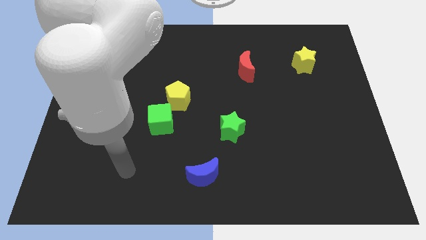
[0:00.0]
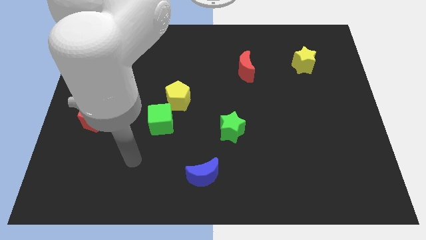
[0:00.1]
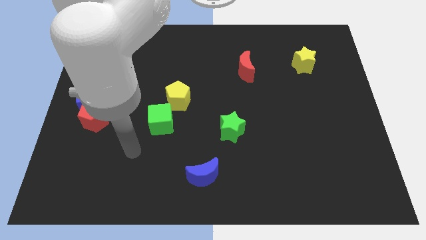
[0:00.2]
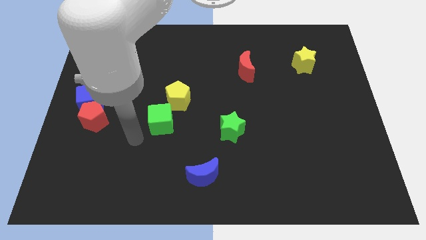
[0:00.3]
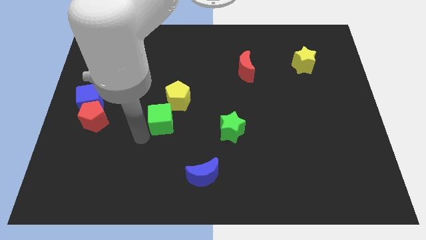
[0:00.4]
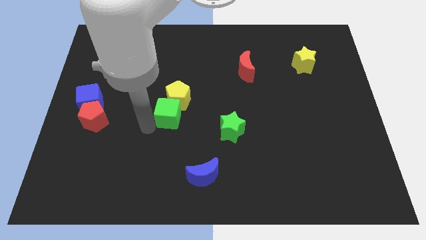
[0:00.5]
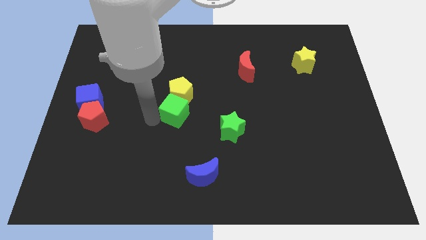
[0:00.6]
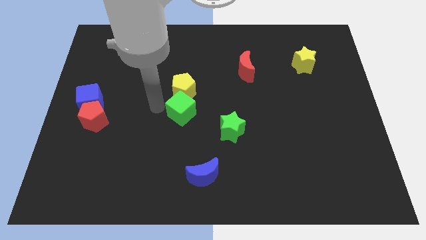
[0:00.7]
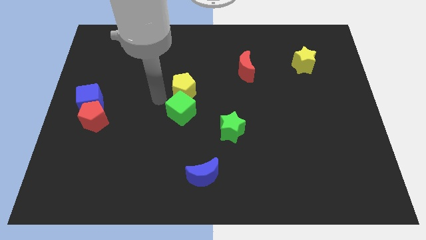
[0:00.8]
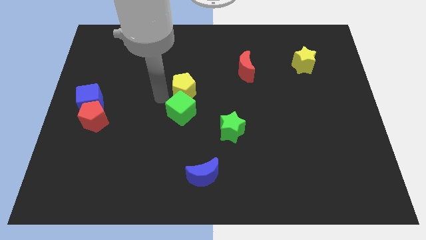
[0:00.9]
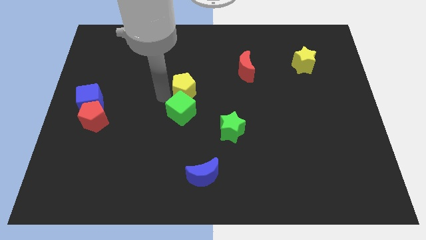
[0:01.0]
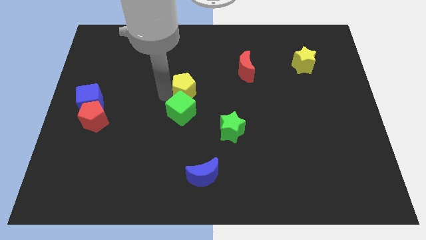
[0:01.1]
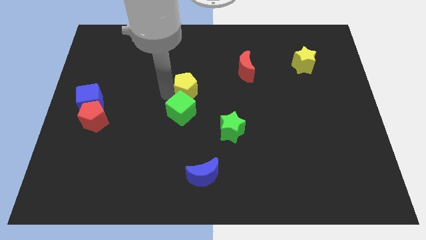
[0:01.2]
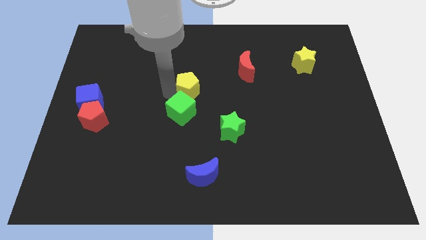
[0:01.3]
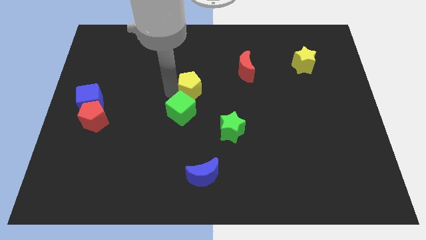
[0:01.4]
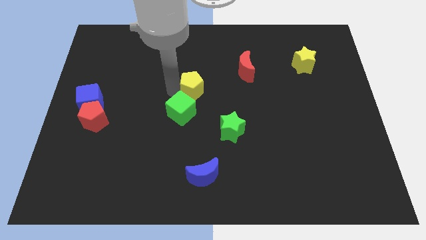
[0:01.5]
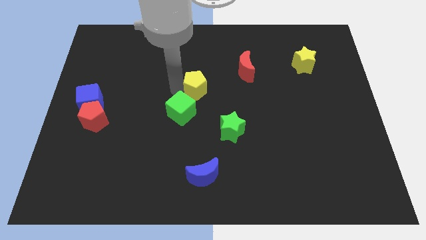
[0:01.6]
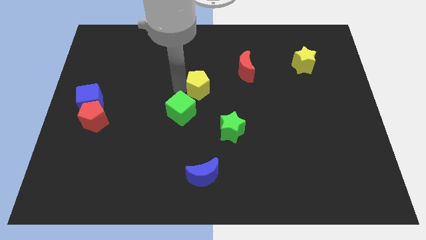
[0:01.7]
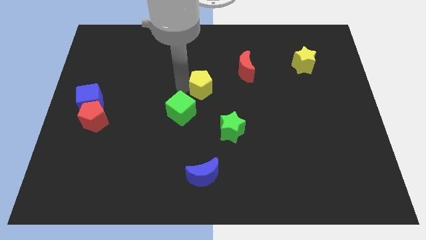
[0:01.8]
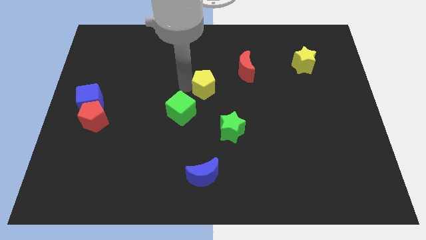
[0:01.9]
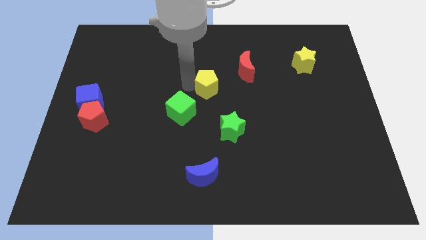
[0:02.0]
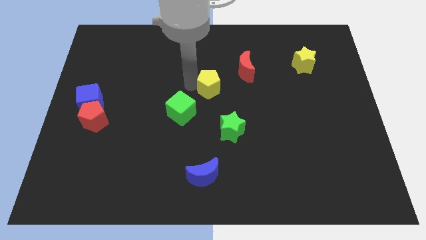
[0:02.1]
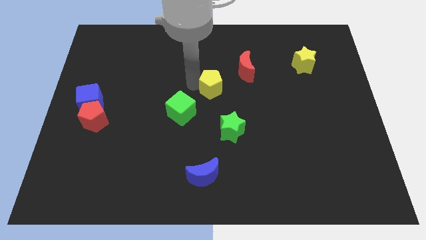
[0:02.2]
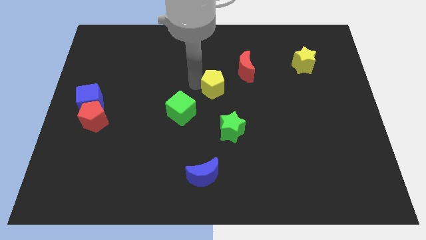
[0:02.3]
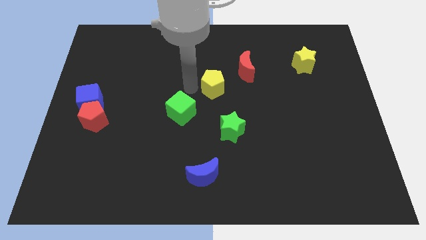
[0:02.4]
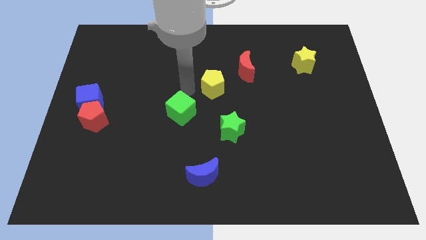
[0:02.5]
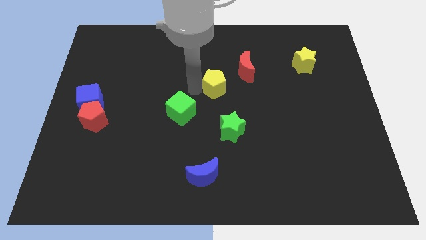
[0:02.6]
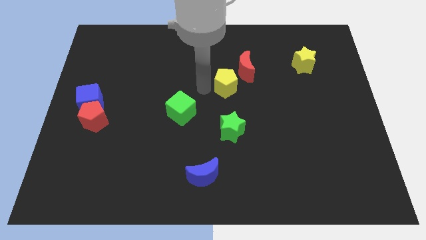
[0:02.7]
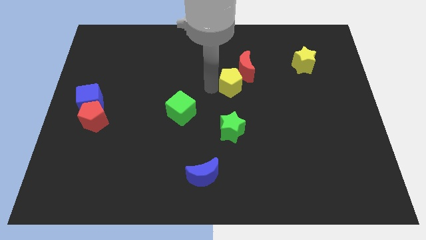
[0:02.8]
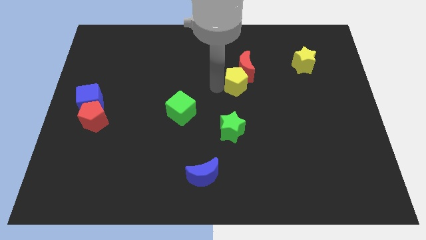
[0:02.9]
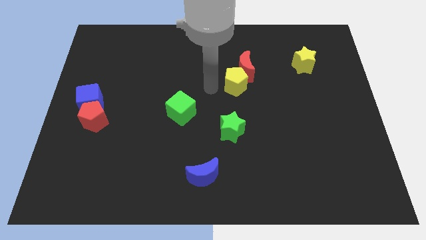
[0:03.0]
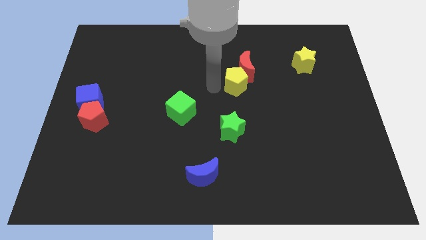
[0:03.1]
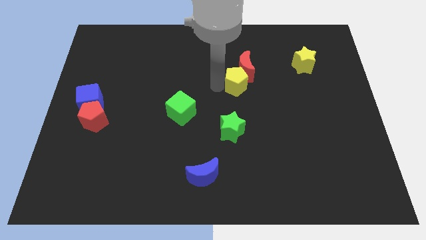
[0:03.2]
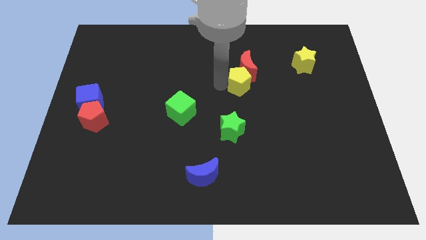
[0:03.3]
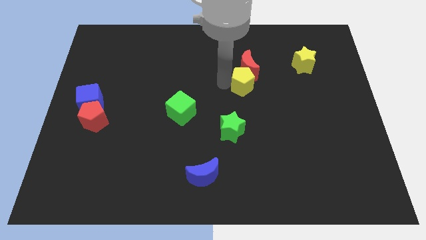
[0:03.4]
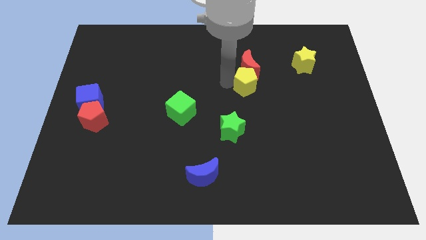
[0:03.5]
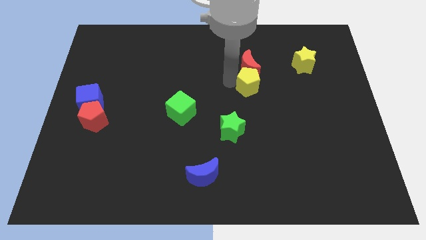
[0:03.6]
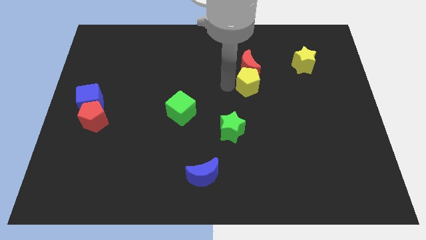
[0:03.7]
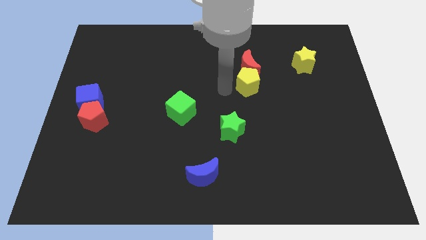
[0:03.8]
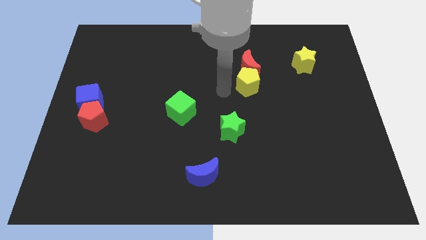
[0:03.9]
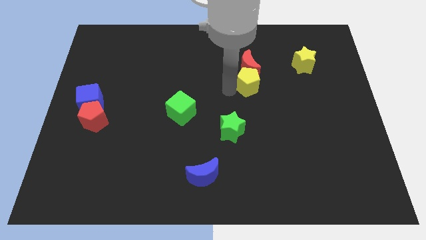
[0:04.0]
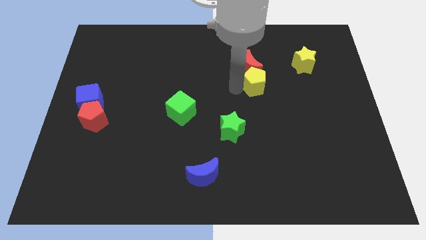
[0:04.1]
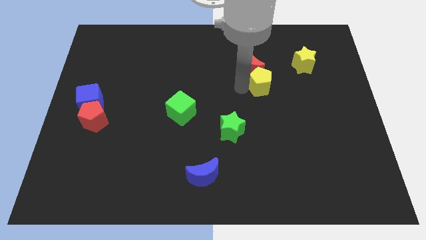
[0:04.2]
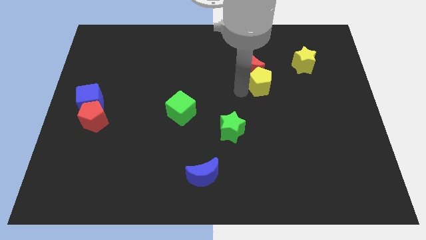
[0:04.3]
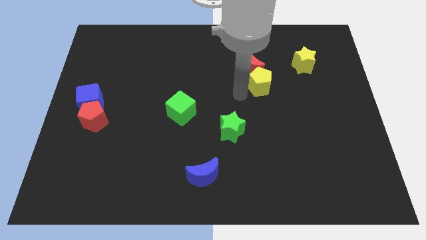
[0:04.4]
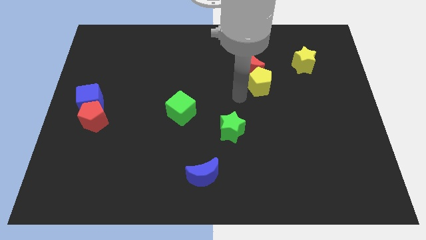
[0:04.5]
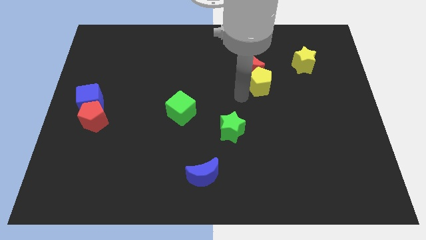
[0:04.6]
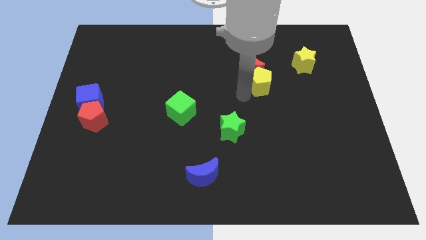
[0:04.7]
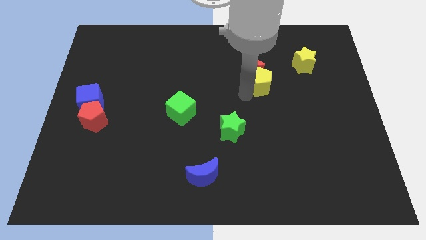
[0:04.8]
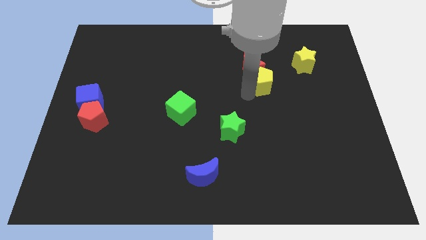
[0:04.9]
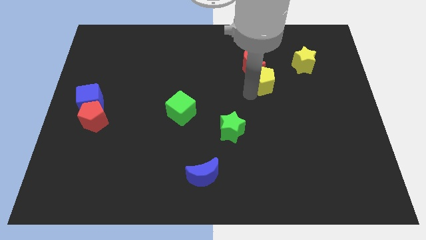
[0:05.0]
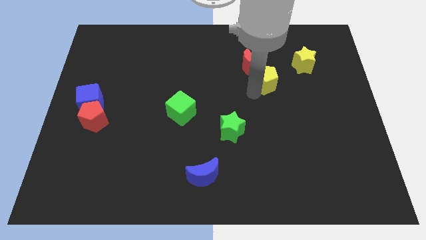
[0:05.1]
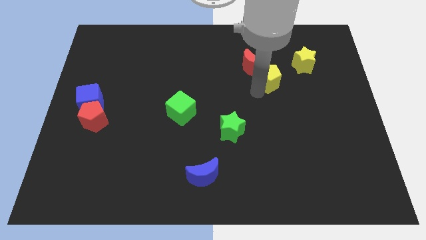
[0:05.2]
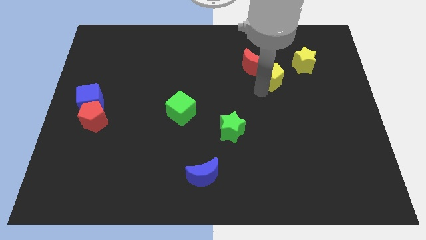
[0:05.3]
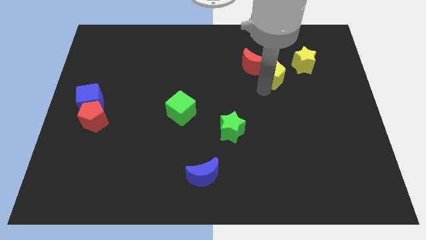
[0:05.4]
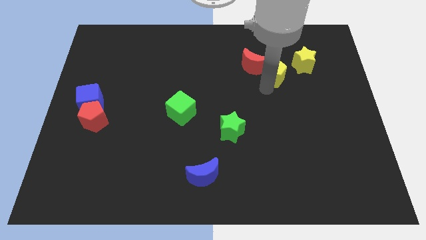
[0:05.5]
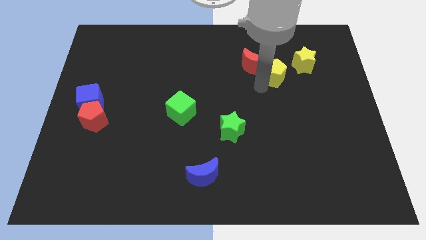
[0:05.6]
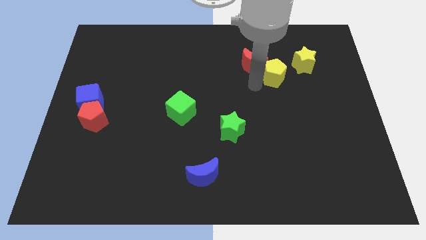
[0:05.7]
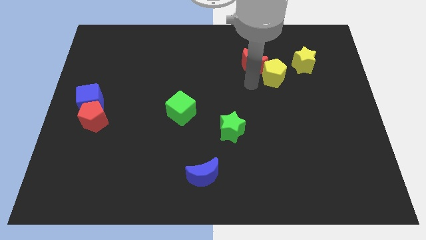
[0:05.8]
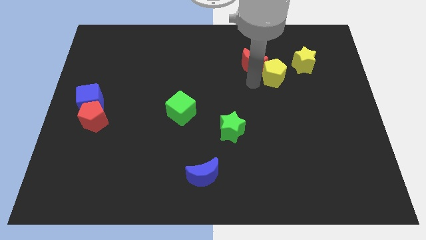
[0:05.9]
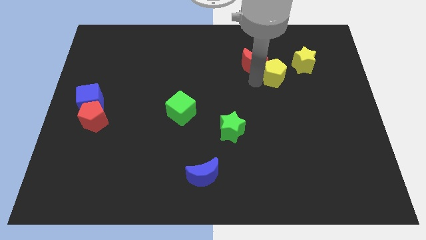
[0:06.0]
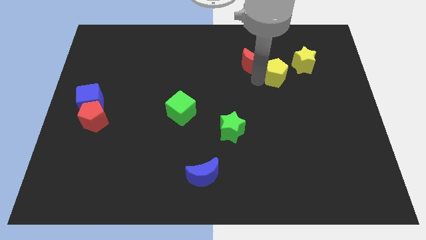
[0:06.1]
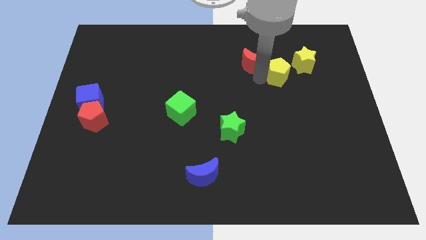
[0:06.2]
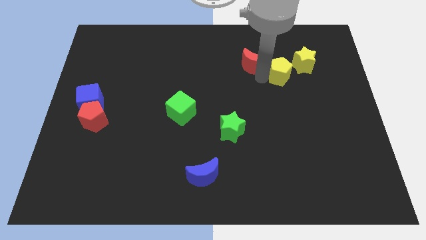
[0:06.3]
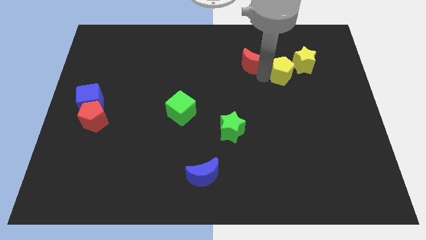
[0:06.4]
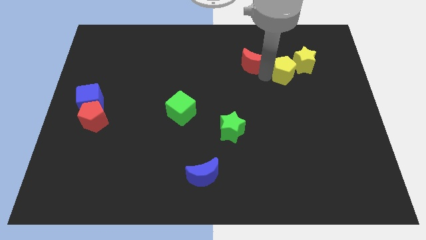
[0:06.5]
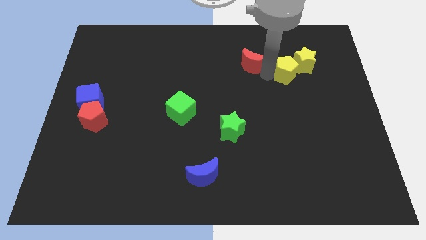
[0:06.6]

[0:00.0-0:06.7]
push the yellow pentagon to the yellow star
